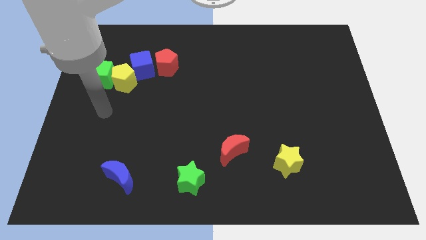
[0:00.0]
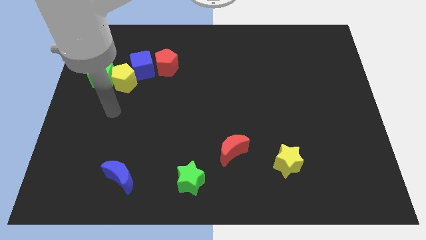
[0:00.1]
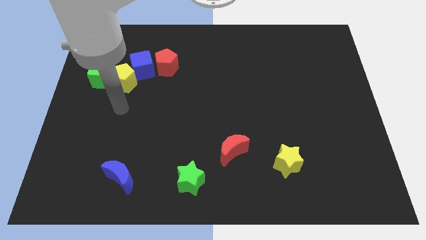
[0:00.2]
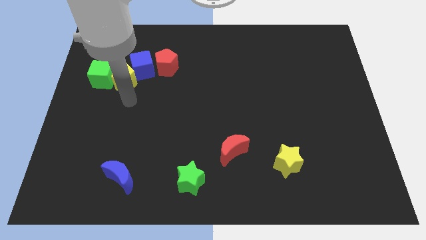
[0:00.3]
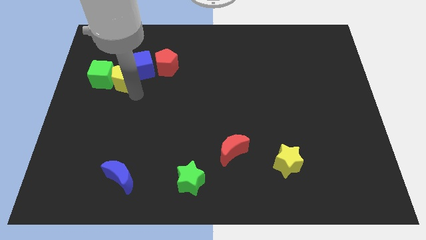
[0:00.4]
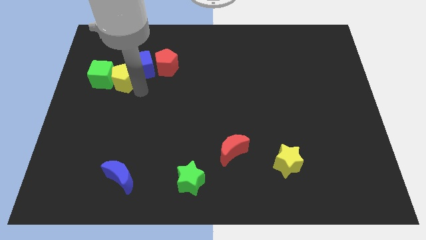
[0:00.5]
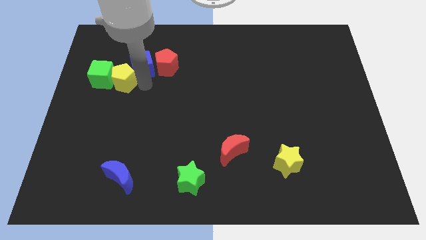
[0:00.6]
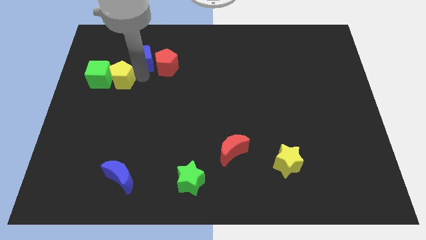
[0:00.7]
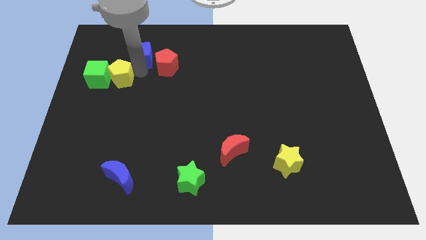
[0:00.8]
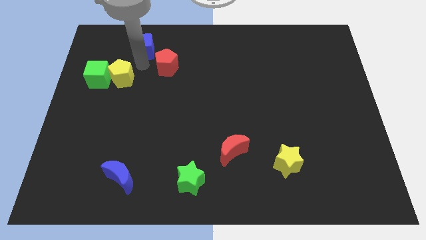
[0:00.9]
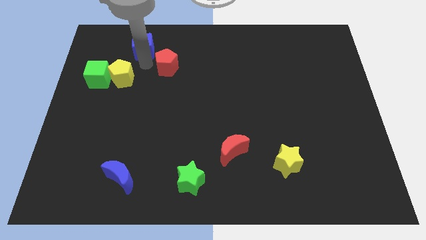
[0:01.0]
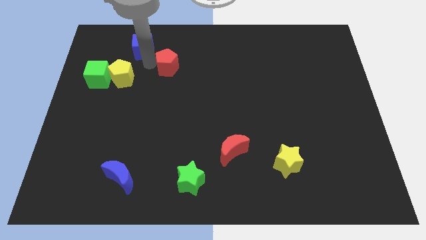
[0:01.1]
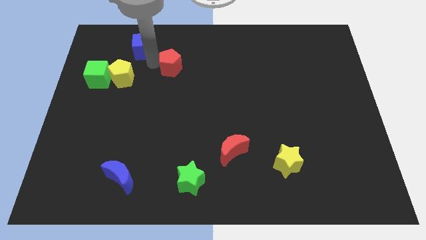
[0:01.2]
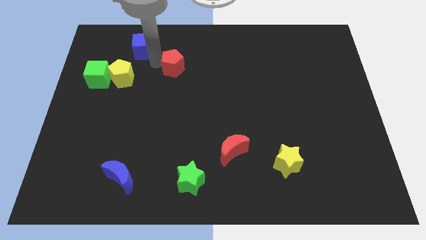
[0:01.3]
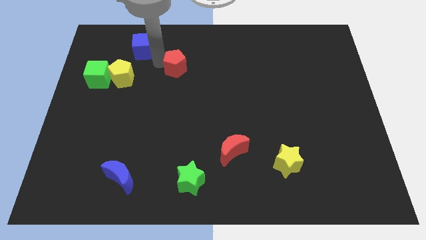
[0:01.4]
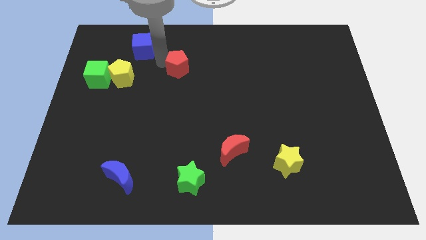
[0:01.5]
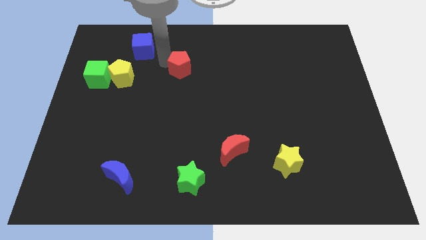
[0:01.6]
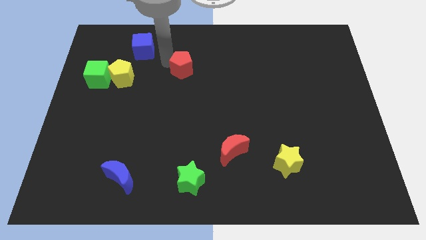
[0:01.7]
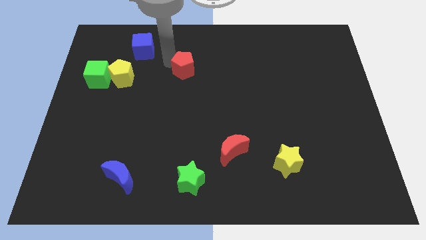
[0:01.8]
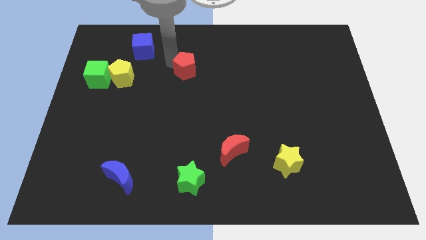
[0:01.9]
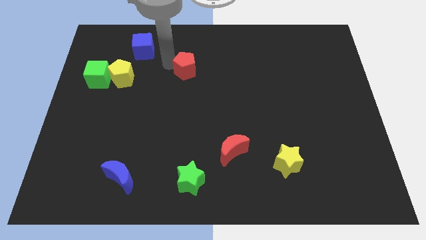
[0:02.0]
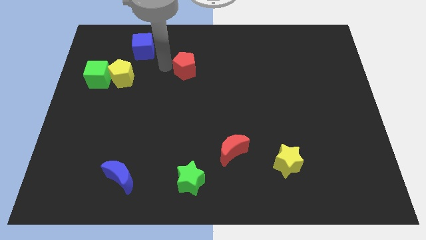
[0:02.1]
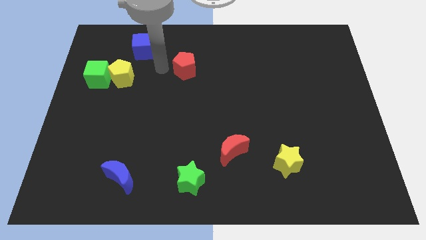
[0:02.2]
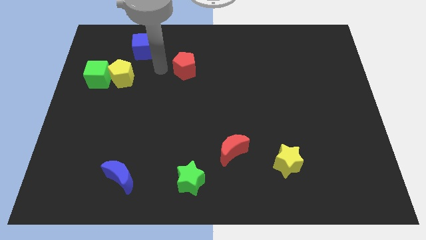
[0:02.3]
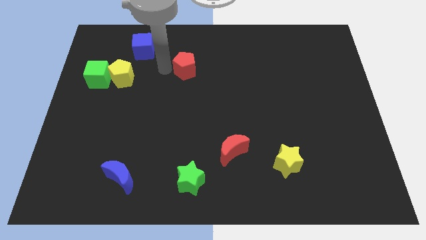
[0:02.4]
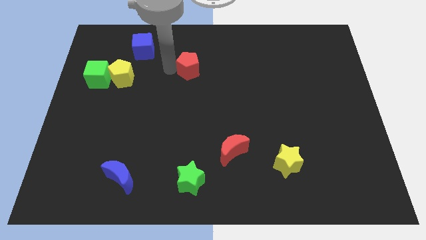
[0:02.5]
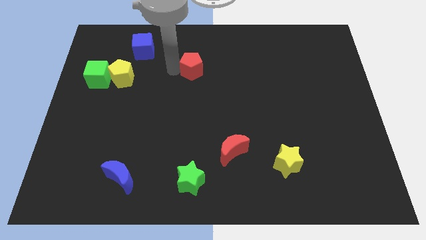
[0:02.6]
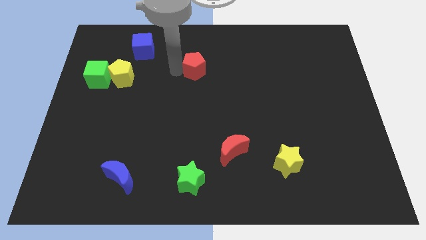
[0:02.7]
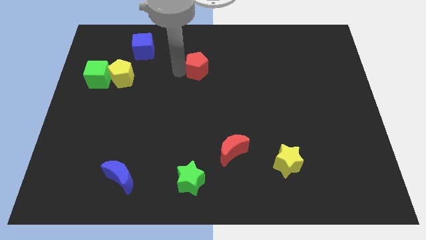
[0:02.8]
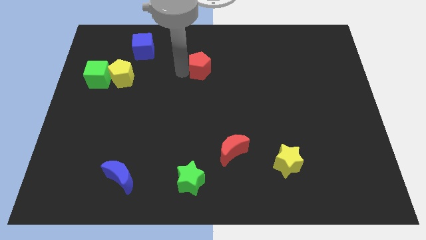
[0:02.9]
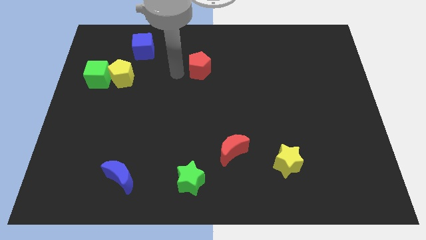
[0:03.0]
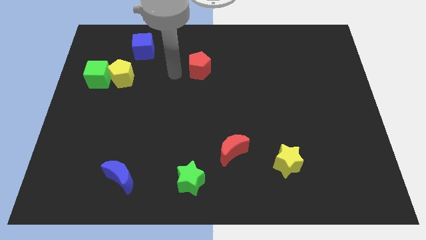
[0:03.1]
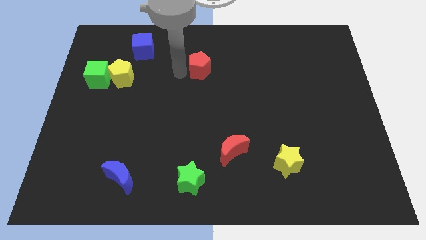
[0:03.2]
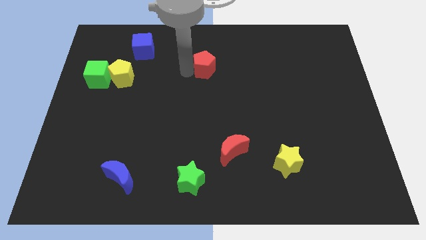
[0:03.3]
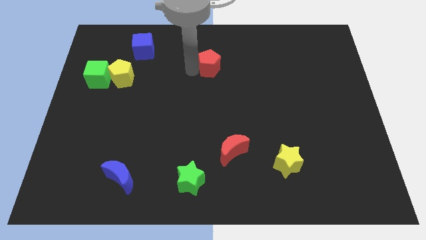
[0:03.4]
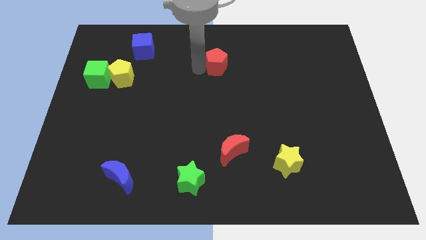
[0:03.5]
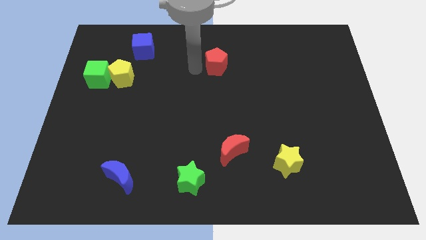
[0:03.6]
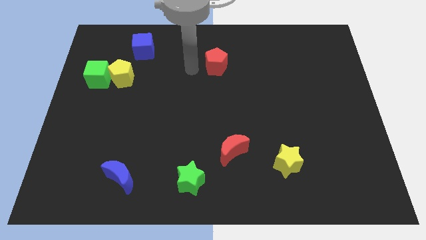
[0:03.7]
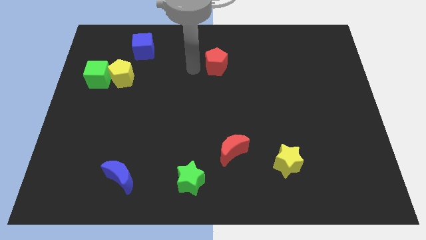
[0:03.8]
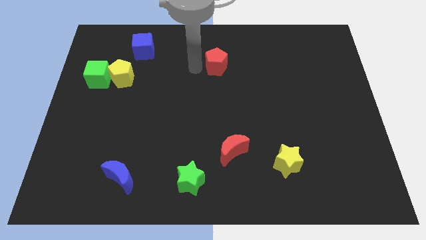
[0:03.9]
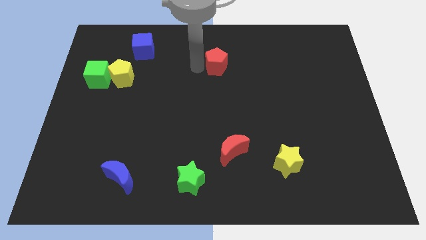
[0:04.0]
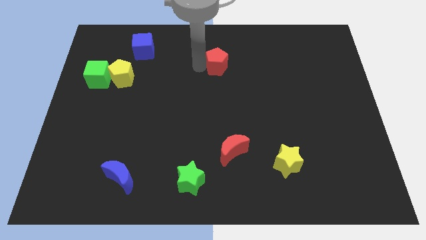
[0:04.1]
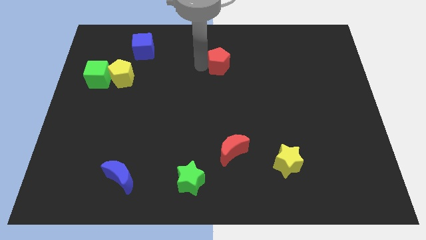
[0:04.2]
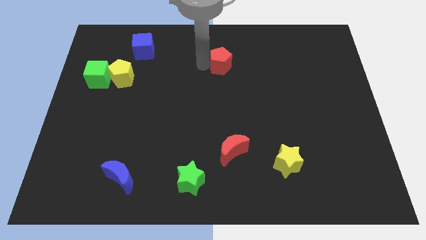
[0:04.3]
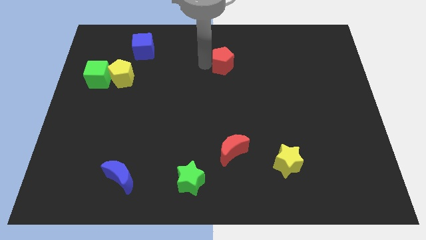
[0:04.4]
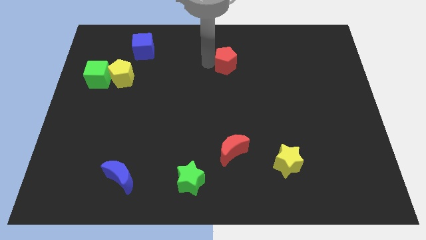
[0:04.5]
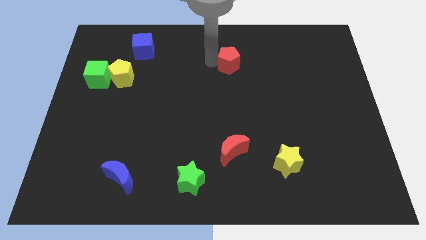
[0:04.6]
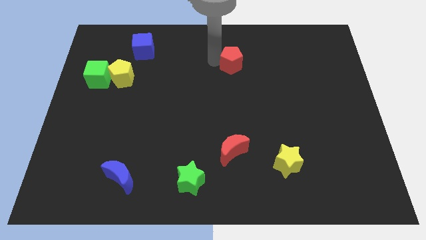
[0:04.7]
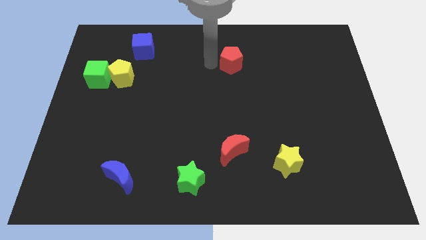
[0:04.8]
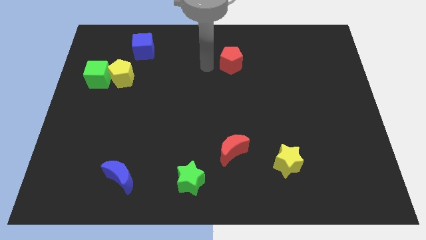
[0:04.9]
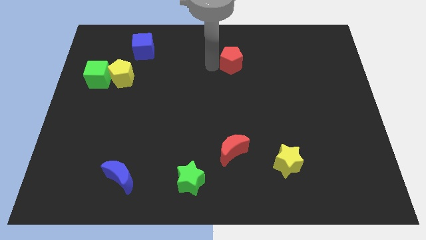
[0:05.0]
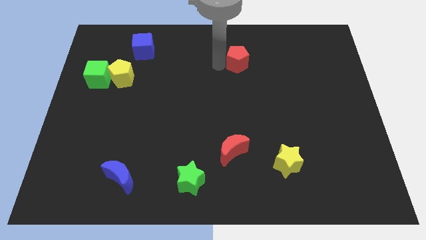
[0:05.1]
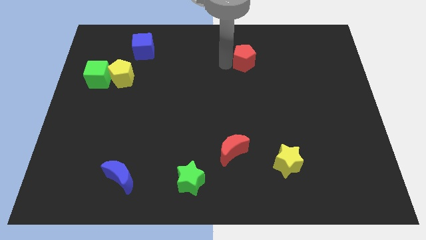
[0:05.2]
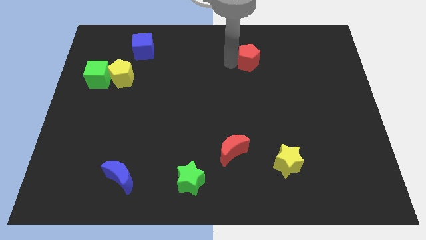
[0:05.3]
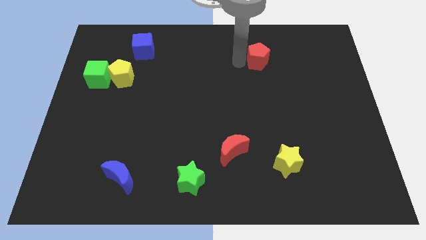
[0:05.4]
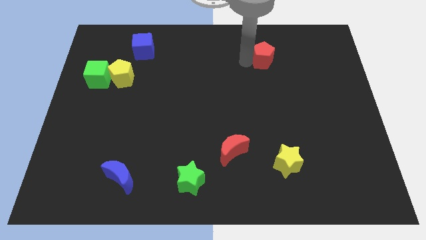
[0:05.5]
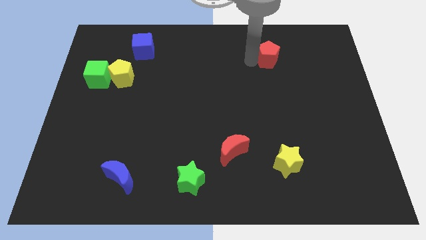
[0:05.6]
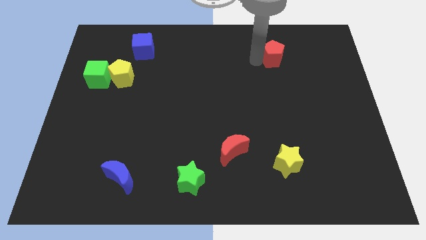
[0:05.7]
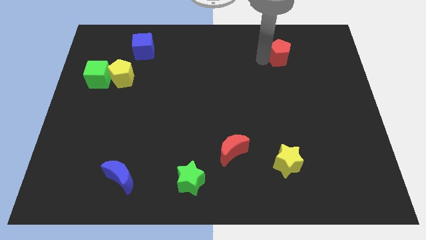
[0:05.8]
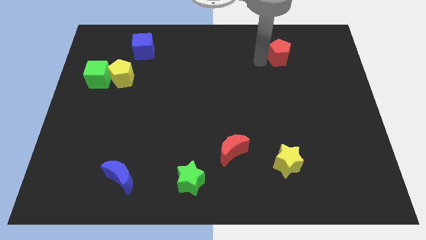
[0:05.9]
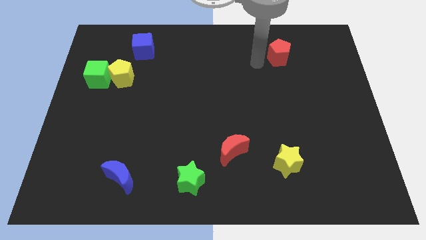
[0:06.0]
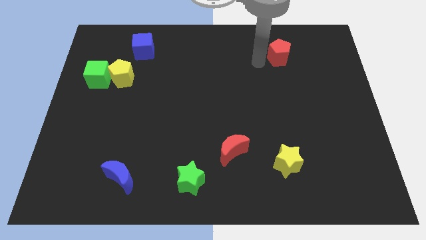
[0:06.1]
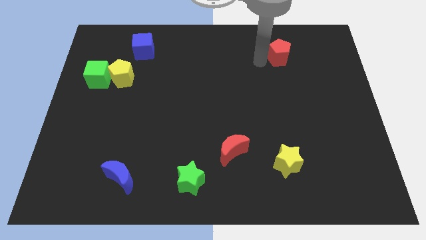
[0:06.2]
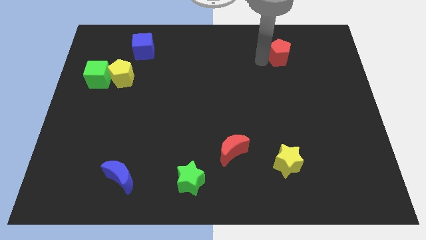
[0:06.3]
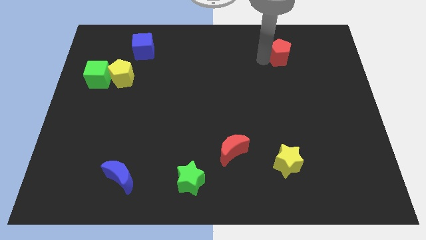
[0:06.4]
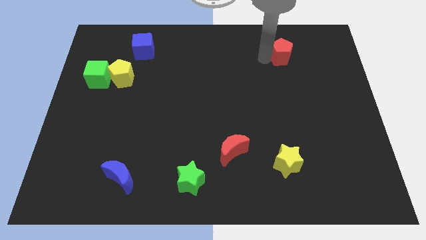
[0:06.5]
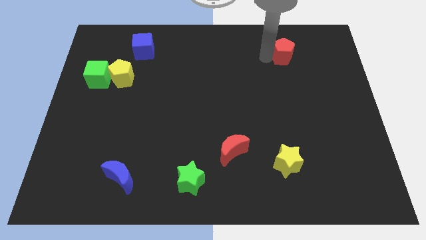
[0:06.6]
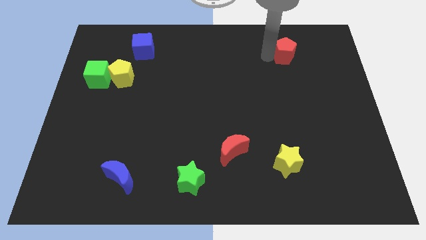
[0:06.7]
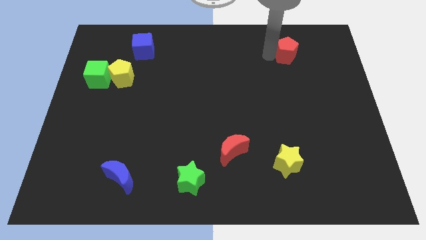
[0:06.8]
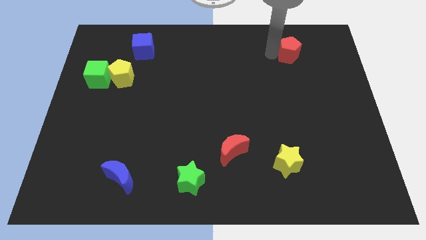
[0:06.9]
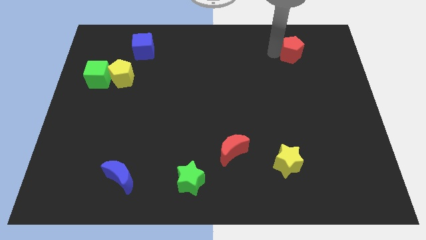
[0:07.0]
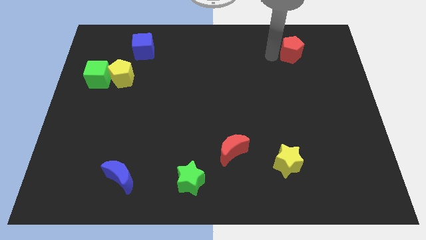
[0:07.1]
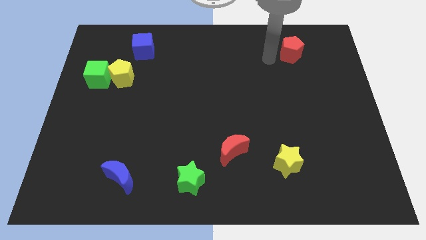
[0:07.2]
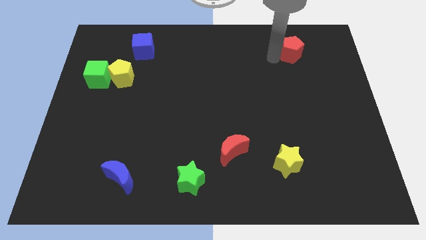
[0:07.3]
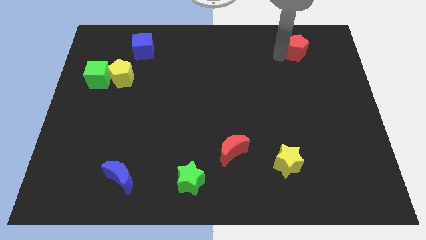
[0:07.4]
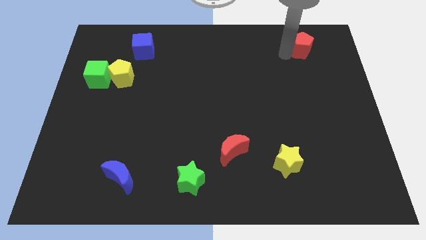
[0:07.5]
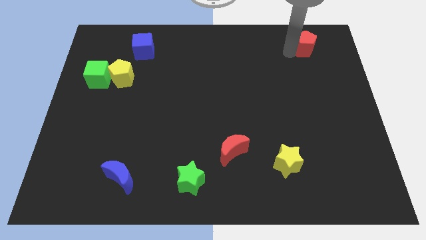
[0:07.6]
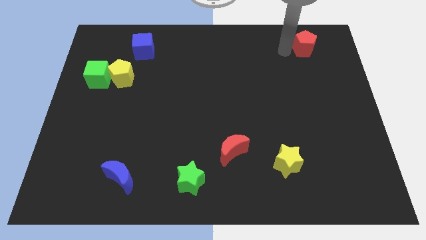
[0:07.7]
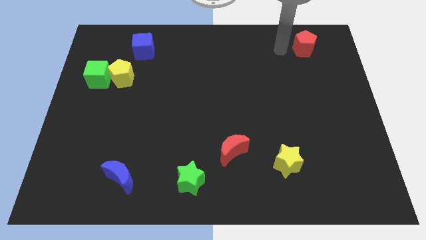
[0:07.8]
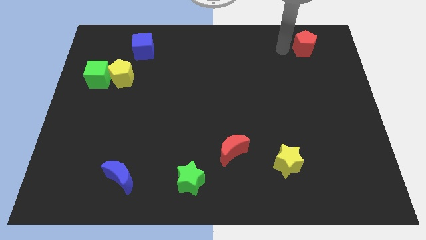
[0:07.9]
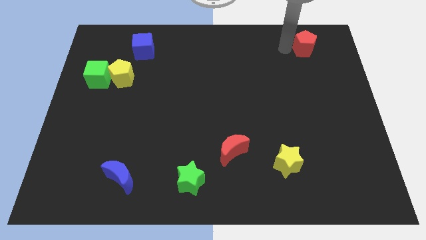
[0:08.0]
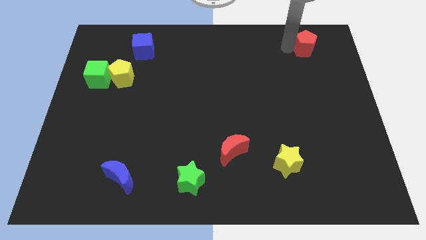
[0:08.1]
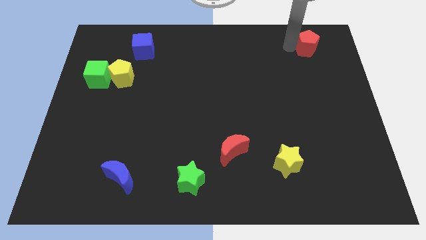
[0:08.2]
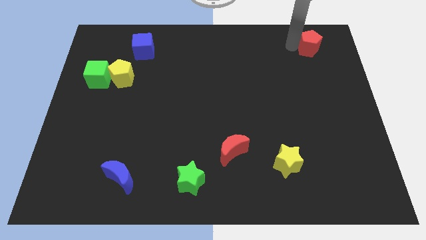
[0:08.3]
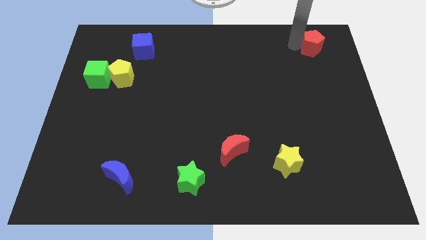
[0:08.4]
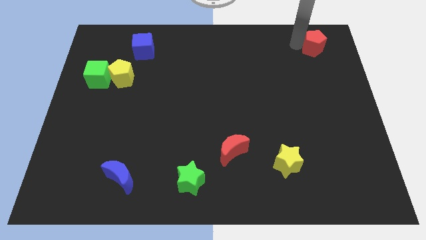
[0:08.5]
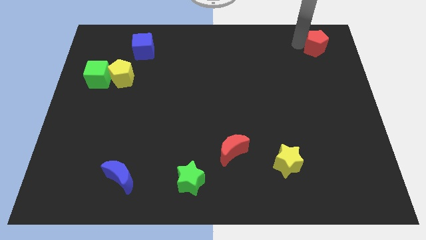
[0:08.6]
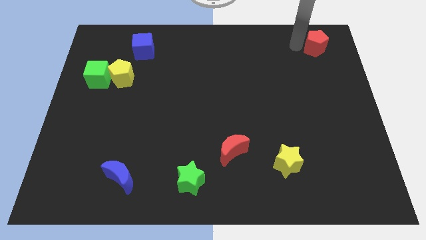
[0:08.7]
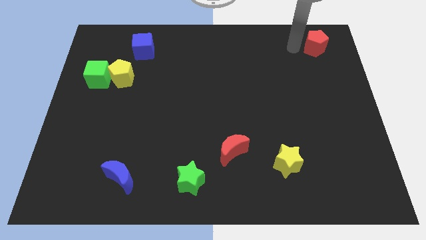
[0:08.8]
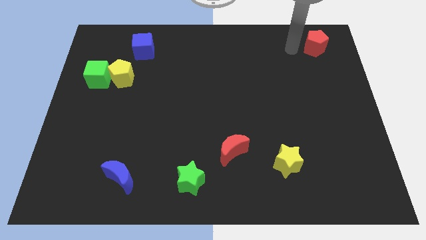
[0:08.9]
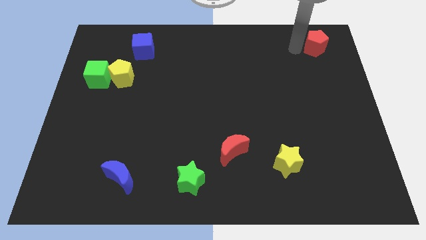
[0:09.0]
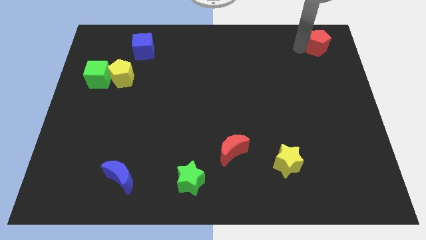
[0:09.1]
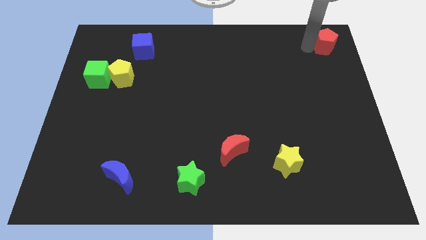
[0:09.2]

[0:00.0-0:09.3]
push the red pentagon to the top right of the board
